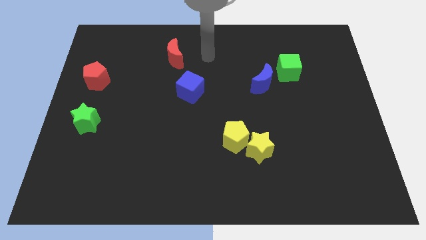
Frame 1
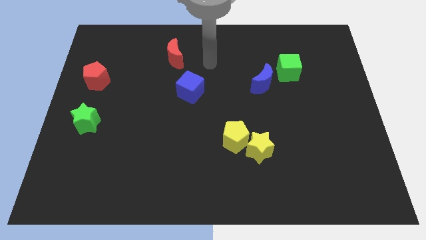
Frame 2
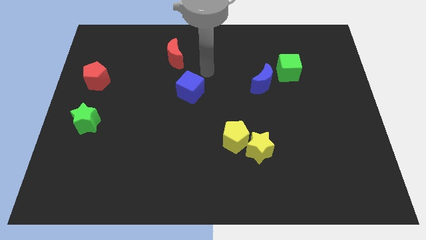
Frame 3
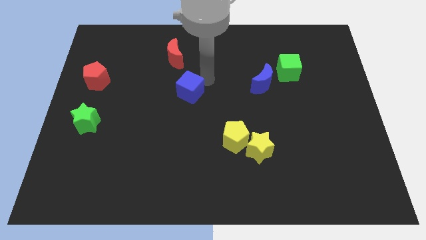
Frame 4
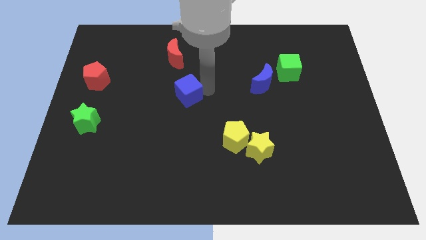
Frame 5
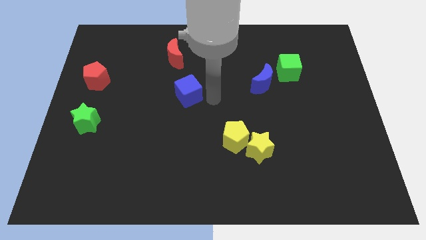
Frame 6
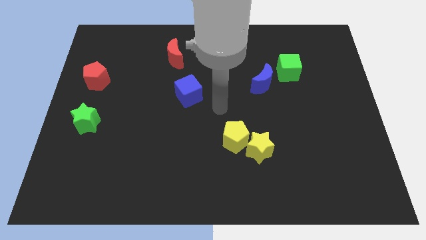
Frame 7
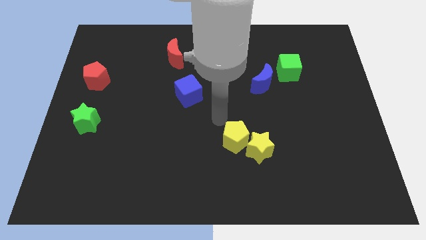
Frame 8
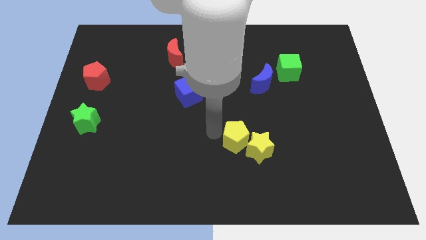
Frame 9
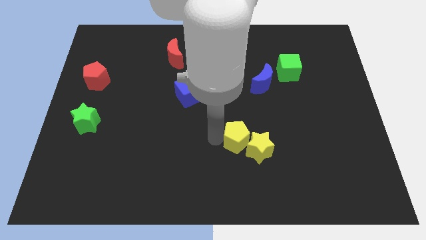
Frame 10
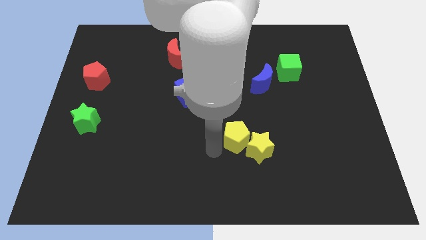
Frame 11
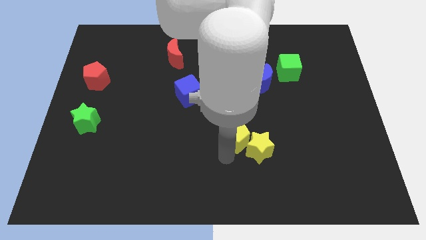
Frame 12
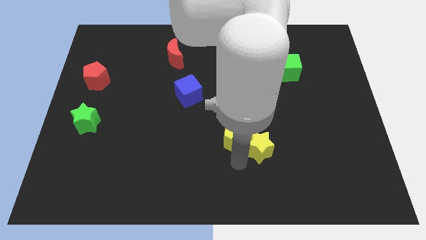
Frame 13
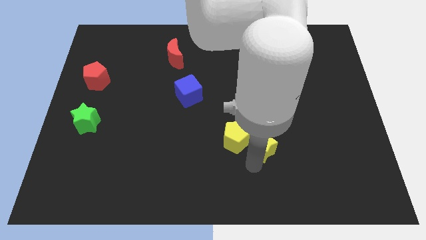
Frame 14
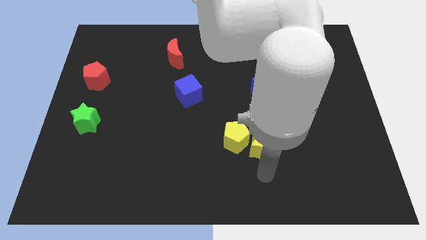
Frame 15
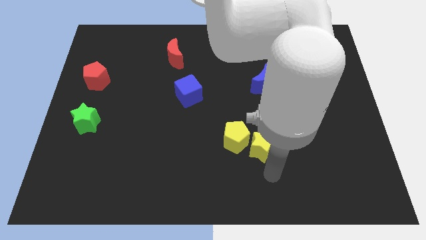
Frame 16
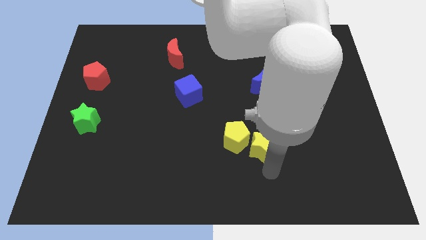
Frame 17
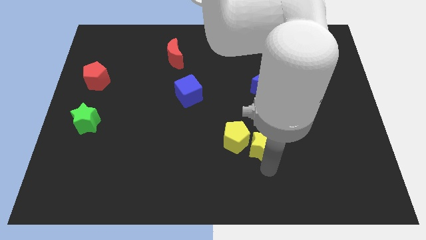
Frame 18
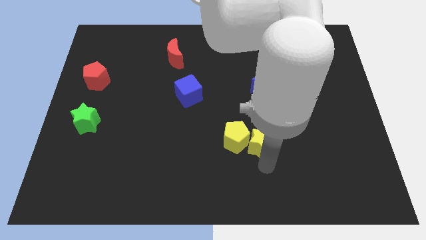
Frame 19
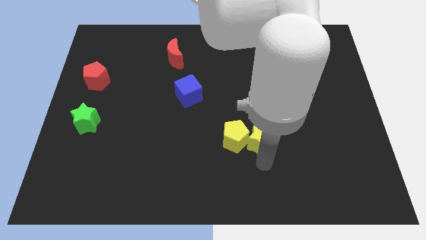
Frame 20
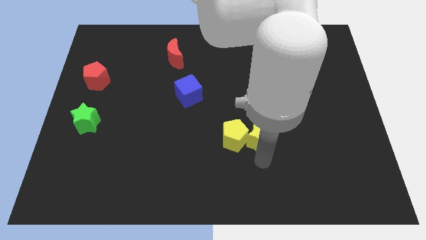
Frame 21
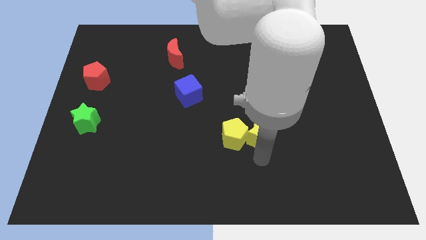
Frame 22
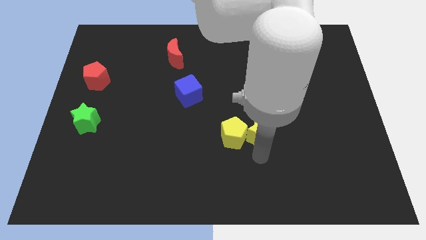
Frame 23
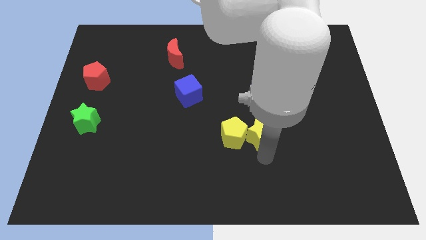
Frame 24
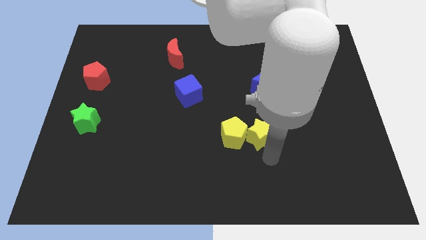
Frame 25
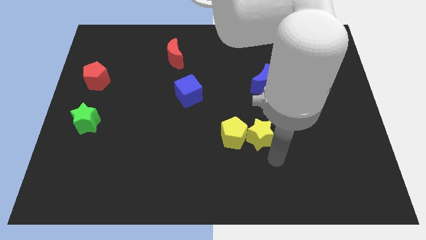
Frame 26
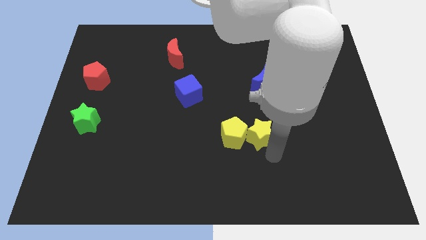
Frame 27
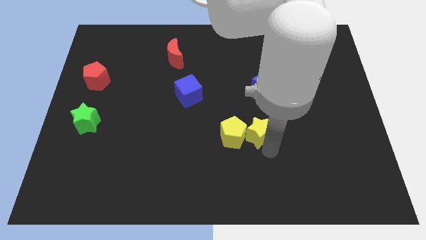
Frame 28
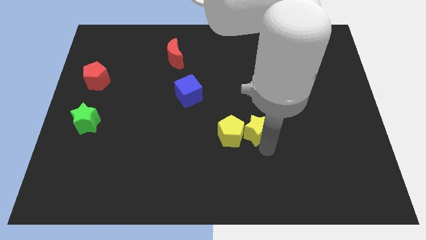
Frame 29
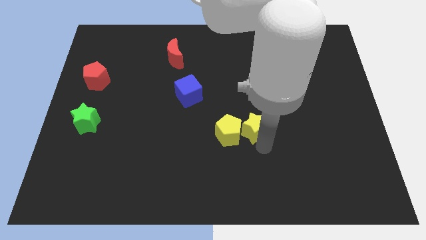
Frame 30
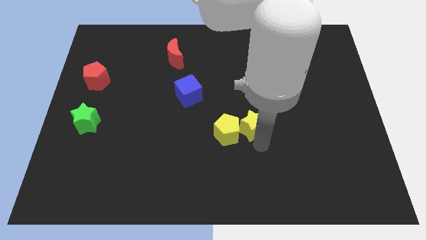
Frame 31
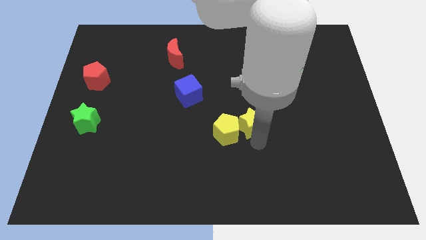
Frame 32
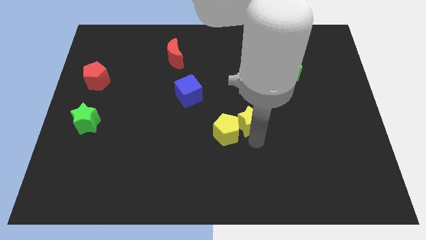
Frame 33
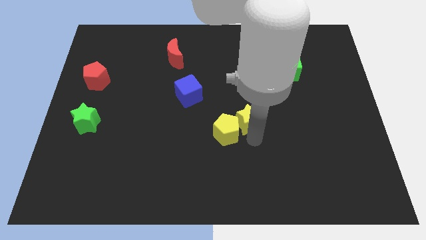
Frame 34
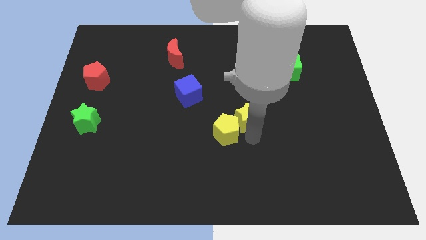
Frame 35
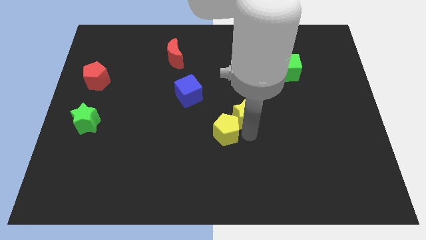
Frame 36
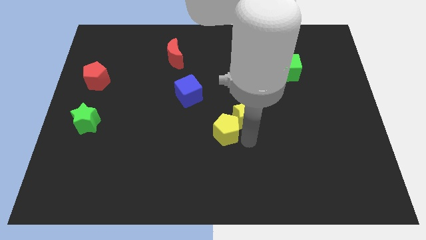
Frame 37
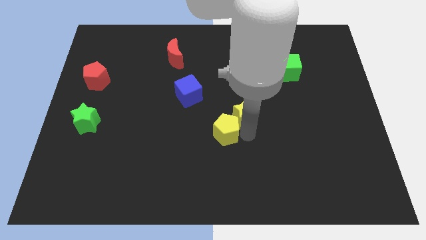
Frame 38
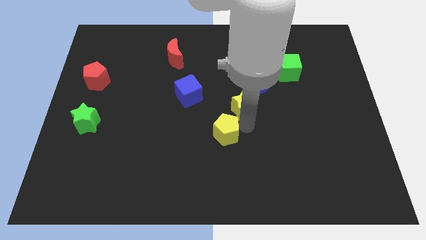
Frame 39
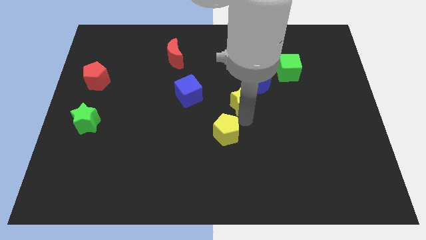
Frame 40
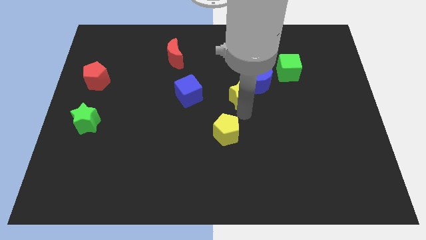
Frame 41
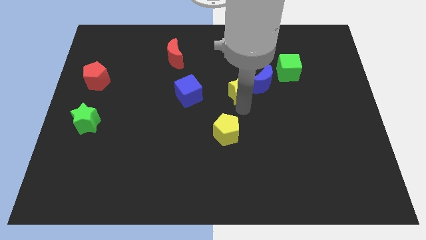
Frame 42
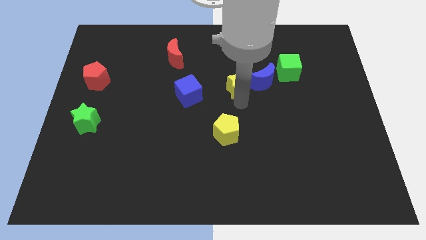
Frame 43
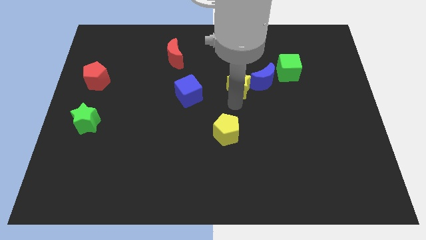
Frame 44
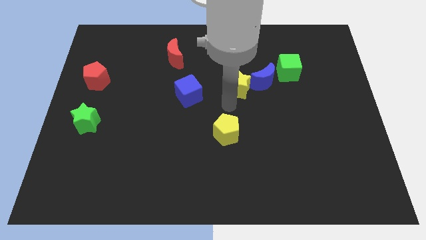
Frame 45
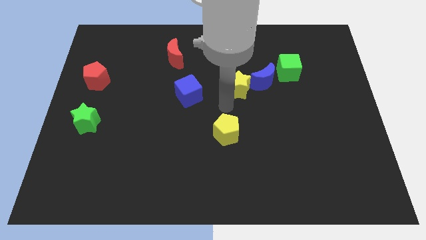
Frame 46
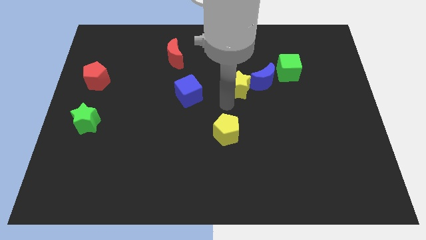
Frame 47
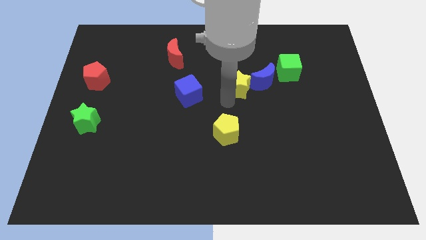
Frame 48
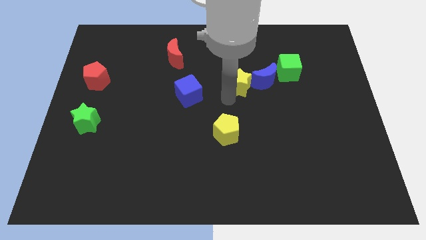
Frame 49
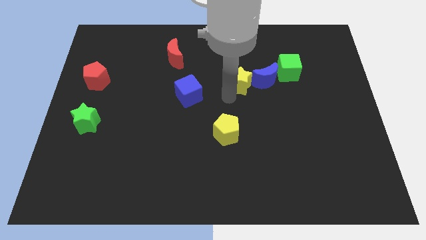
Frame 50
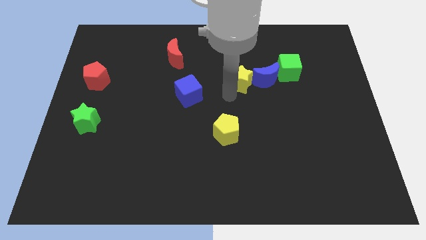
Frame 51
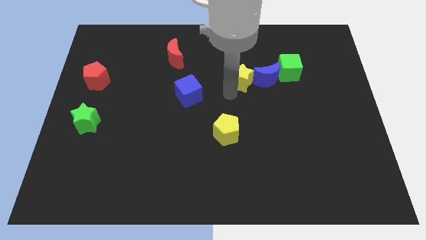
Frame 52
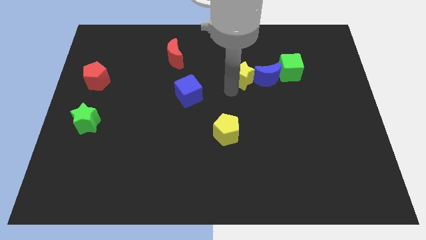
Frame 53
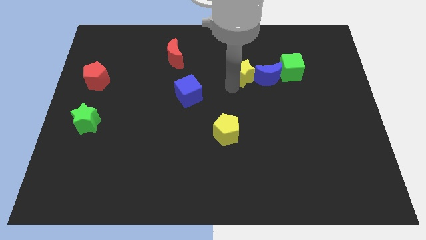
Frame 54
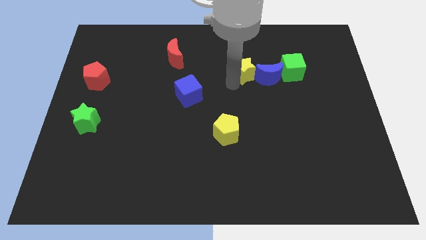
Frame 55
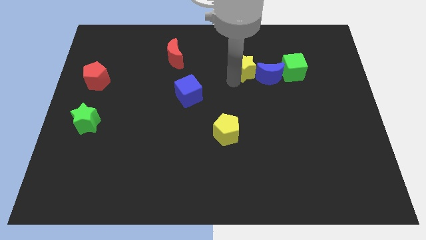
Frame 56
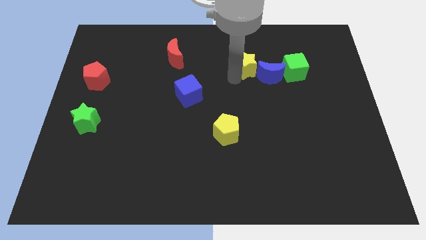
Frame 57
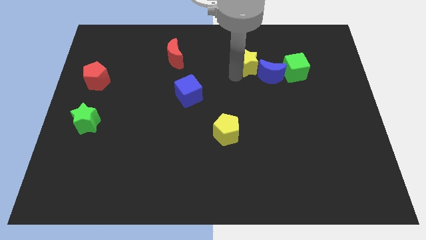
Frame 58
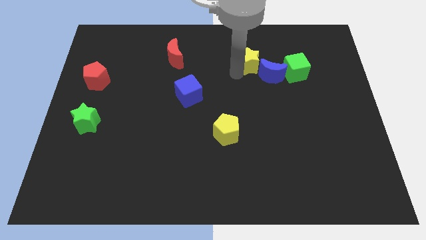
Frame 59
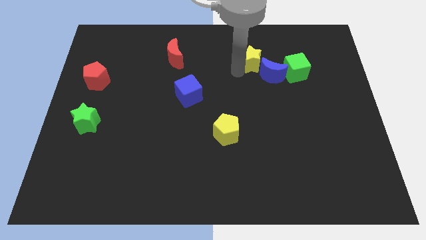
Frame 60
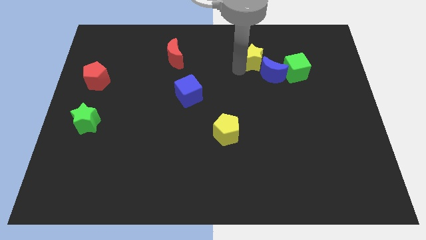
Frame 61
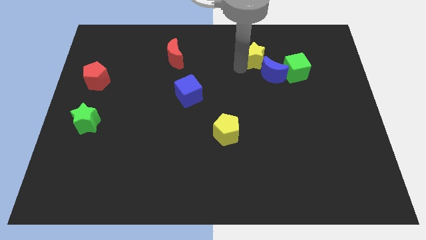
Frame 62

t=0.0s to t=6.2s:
push the yellow star diagonally up and to the left of the green cube

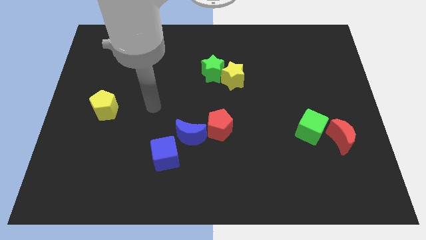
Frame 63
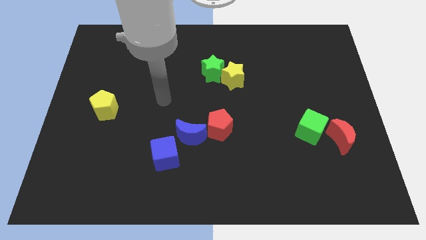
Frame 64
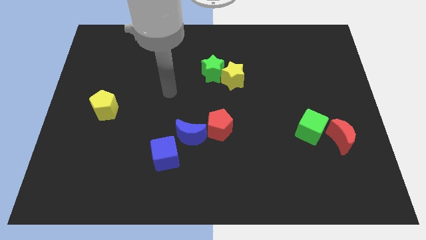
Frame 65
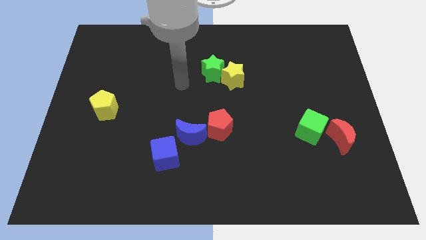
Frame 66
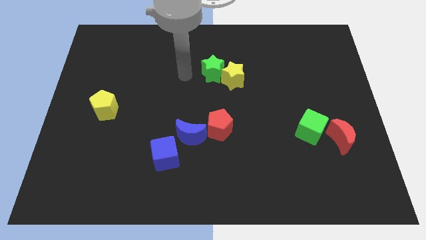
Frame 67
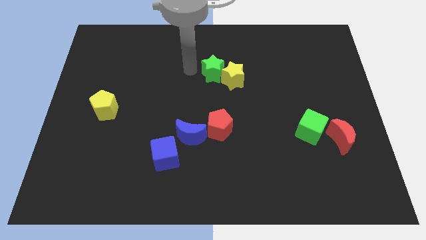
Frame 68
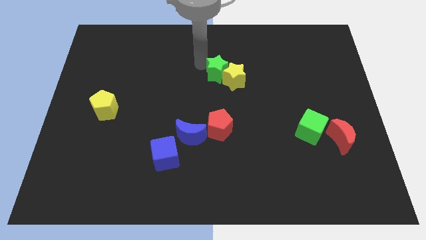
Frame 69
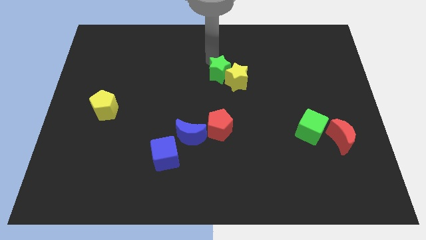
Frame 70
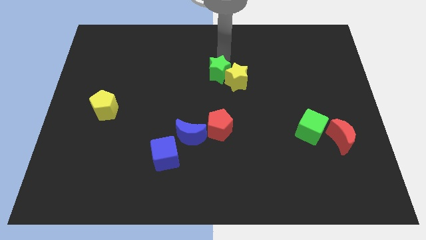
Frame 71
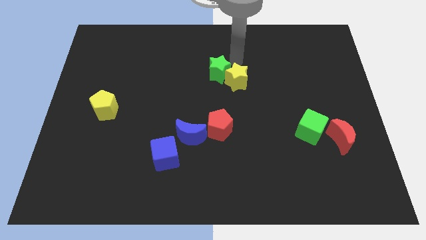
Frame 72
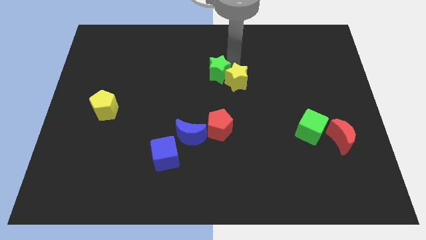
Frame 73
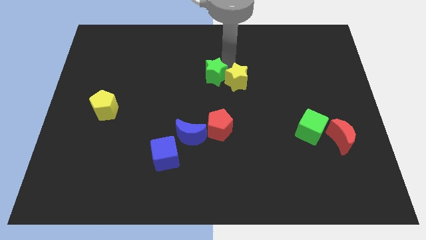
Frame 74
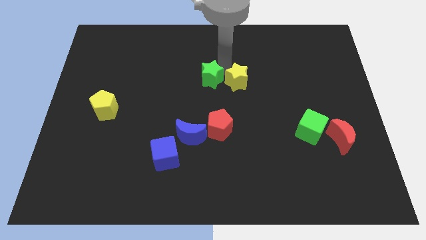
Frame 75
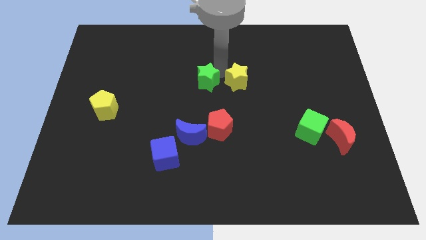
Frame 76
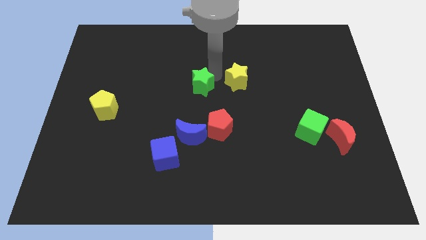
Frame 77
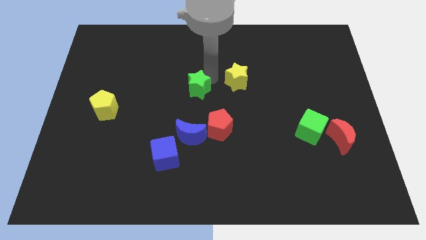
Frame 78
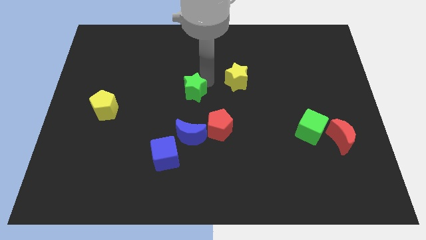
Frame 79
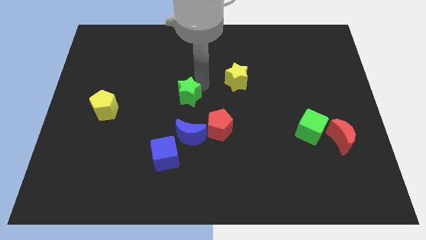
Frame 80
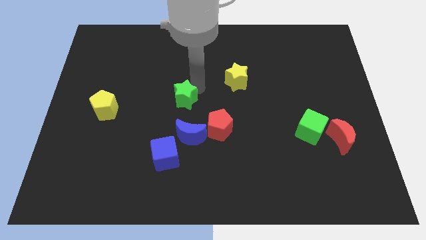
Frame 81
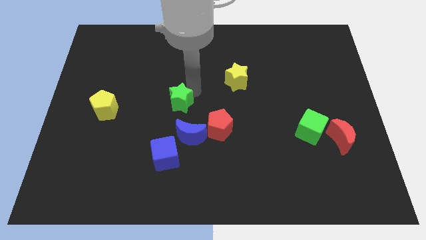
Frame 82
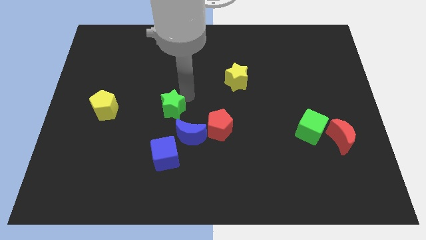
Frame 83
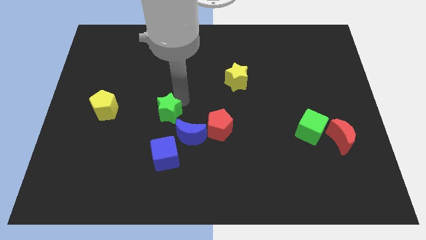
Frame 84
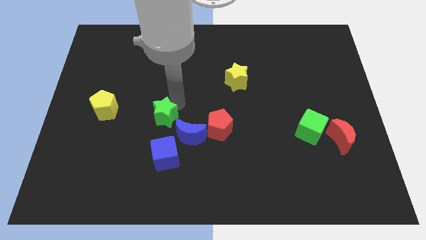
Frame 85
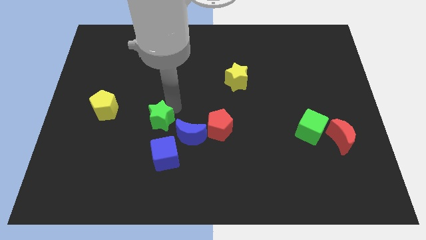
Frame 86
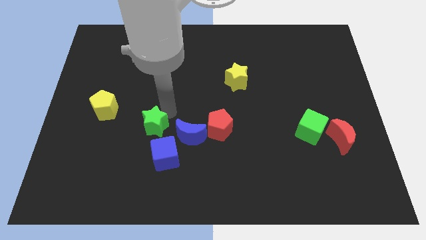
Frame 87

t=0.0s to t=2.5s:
move the green star to the top left of the blue cube
